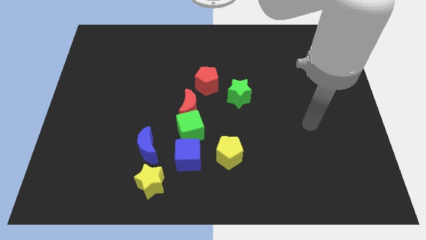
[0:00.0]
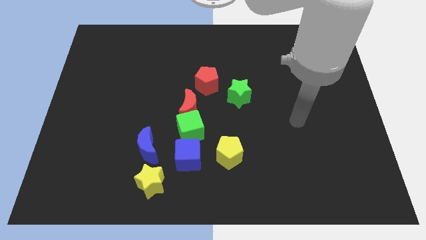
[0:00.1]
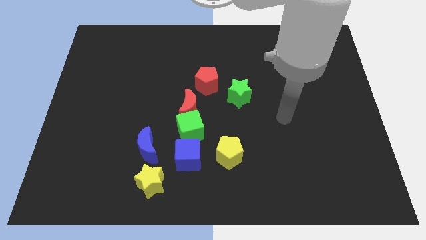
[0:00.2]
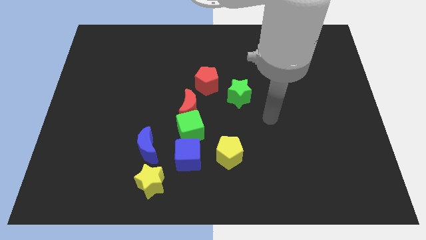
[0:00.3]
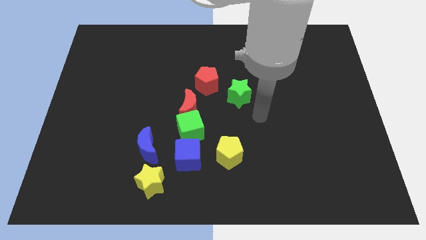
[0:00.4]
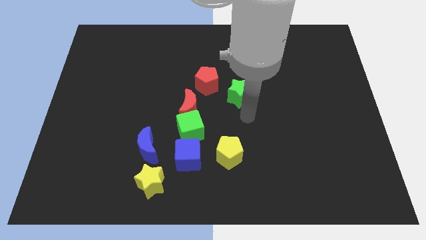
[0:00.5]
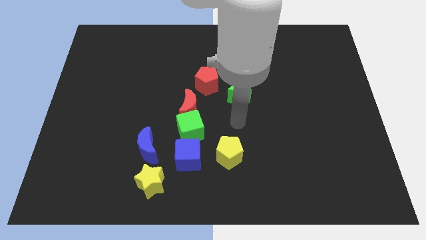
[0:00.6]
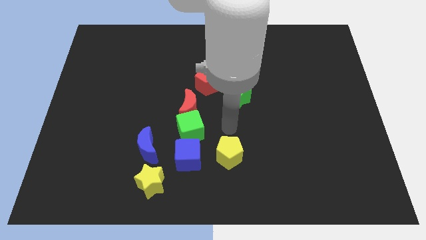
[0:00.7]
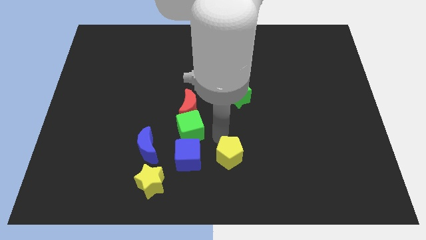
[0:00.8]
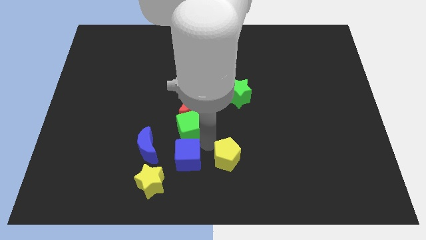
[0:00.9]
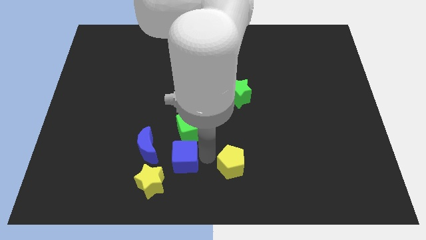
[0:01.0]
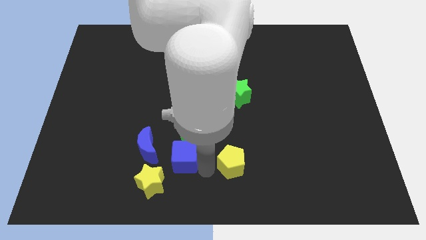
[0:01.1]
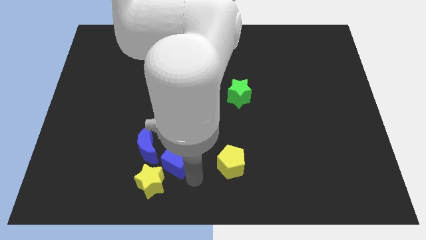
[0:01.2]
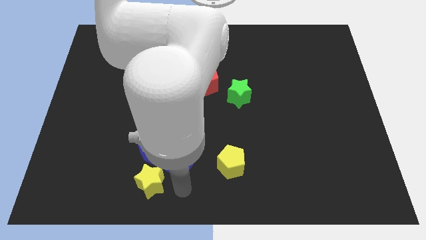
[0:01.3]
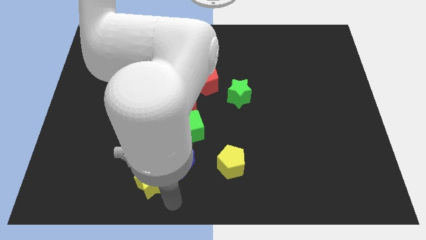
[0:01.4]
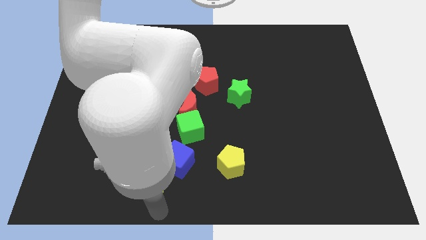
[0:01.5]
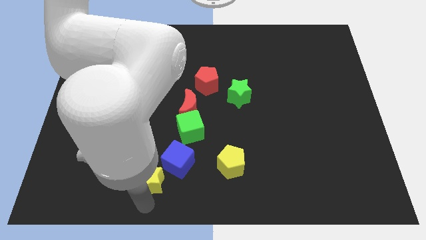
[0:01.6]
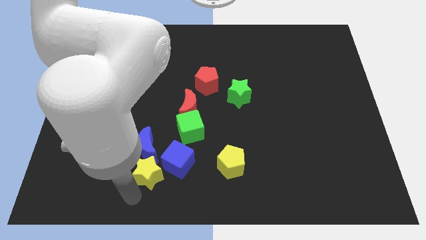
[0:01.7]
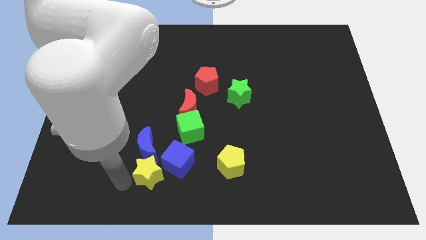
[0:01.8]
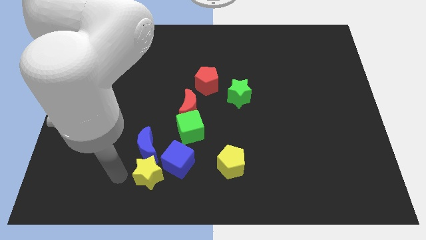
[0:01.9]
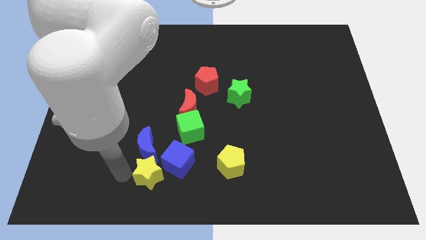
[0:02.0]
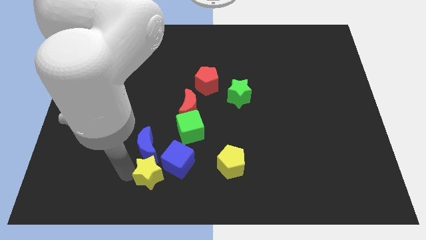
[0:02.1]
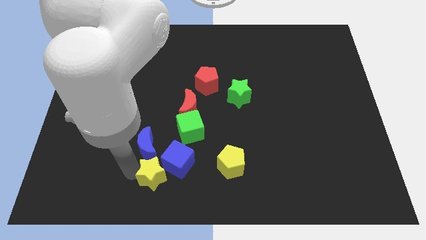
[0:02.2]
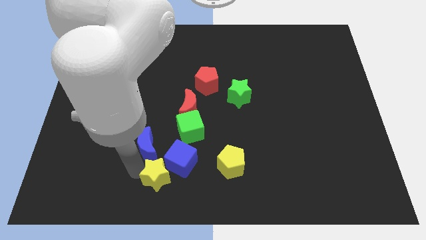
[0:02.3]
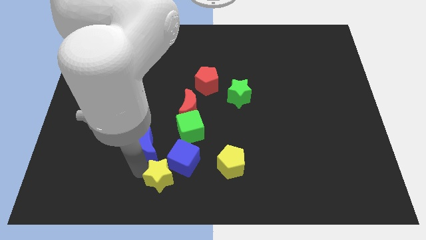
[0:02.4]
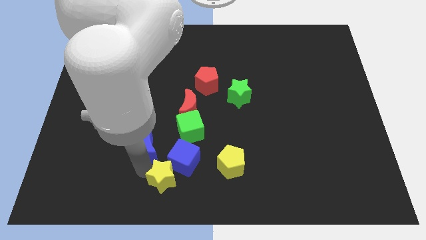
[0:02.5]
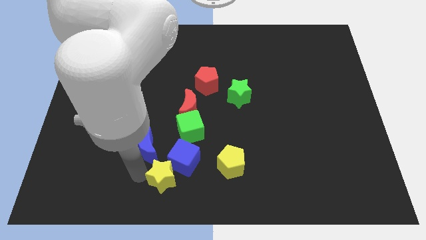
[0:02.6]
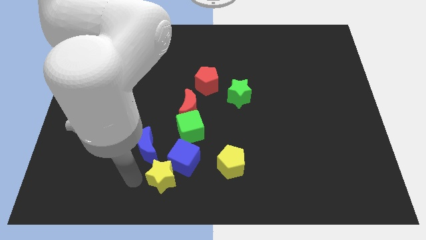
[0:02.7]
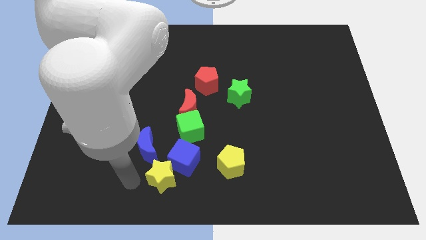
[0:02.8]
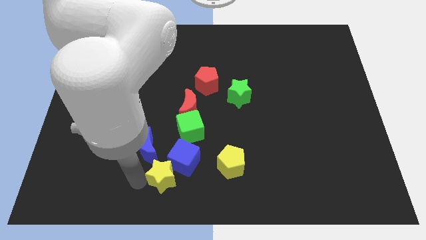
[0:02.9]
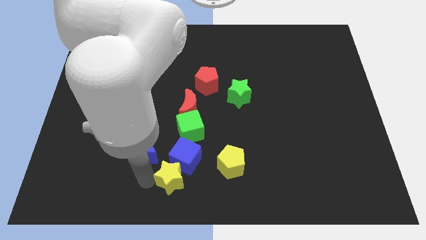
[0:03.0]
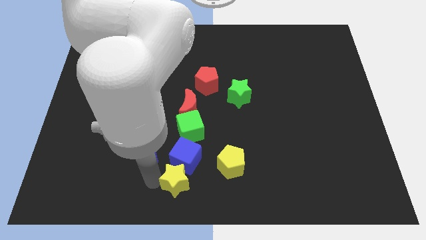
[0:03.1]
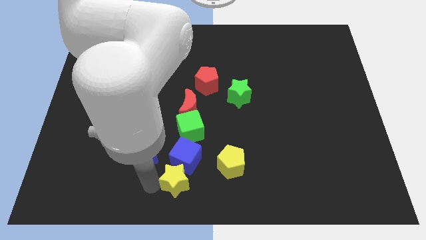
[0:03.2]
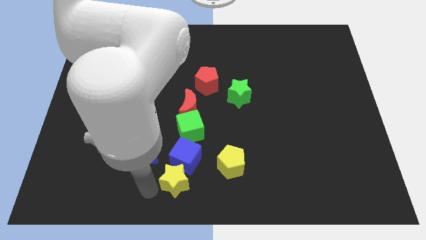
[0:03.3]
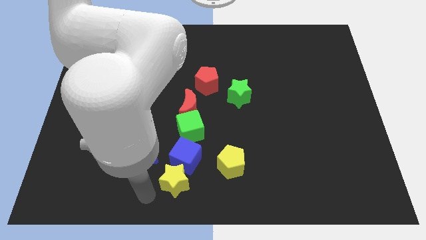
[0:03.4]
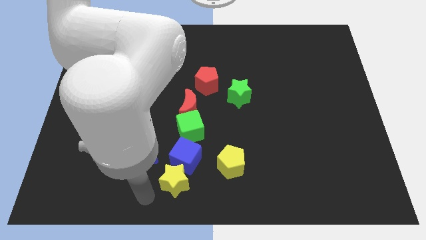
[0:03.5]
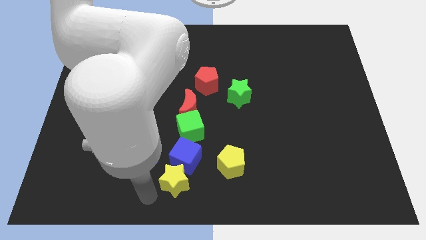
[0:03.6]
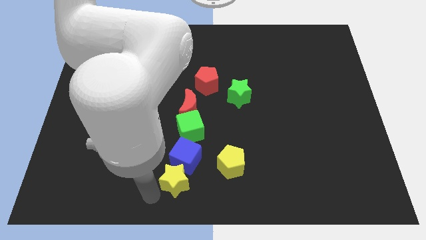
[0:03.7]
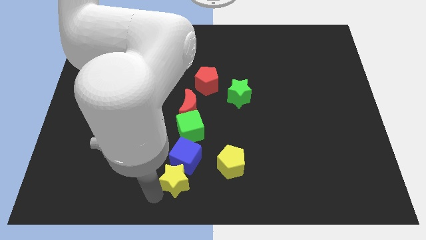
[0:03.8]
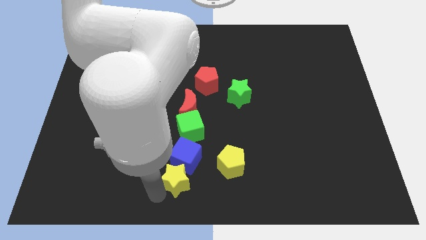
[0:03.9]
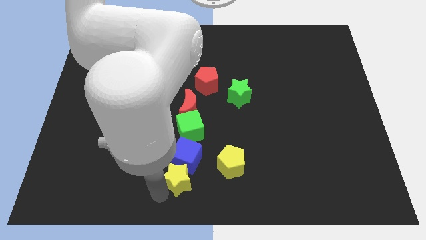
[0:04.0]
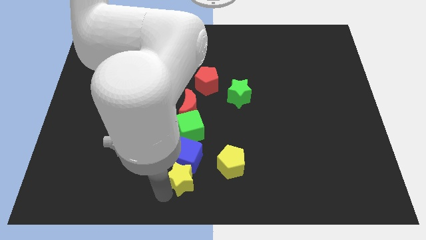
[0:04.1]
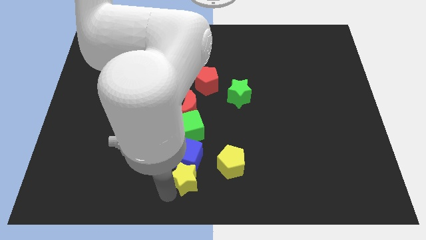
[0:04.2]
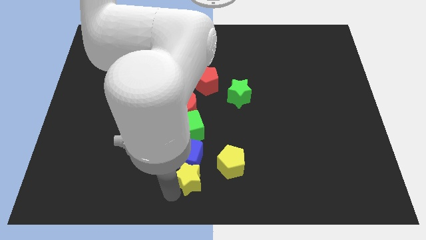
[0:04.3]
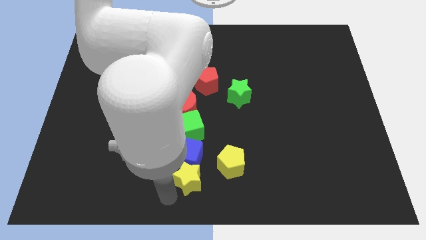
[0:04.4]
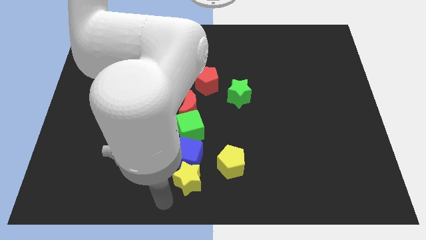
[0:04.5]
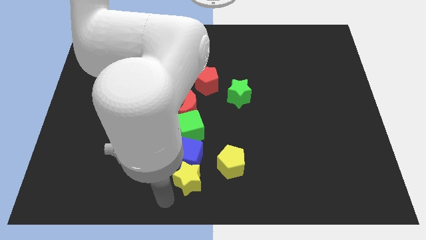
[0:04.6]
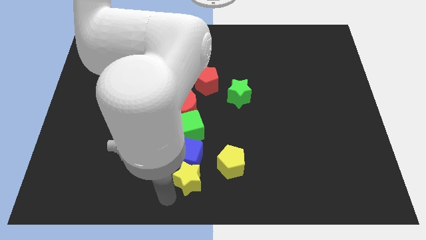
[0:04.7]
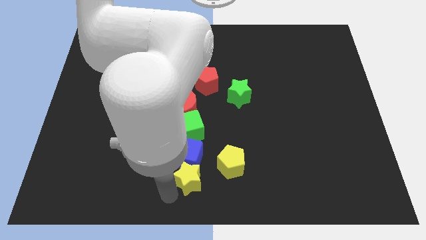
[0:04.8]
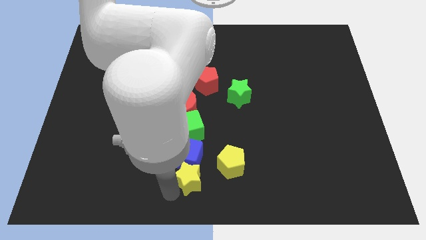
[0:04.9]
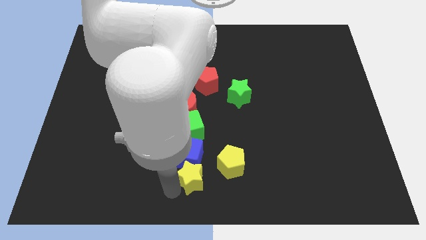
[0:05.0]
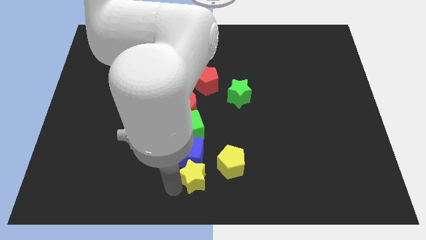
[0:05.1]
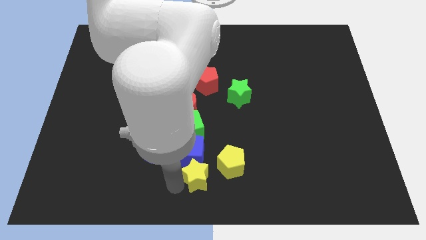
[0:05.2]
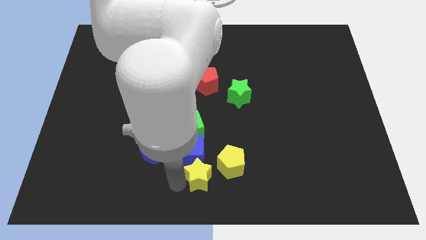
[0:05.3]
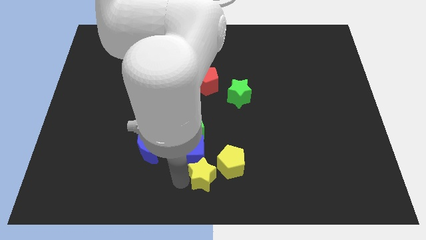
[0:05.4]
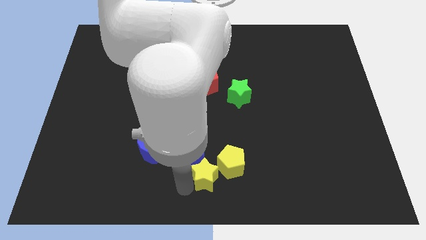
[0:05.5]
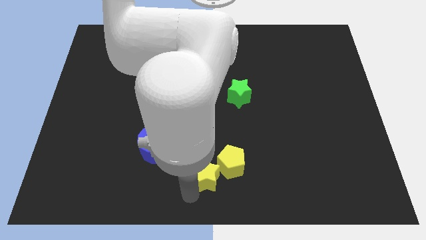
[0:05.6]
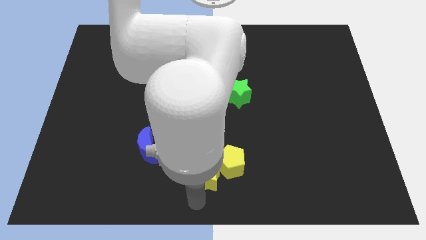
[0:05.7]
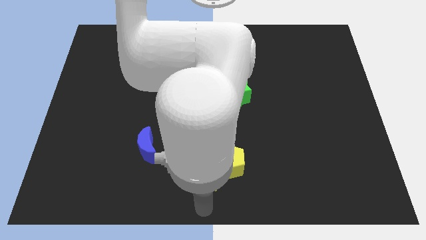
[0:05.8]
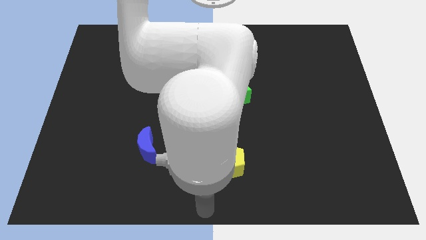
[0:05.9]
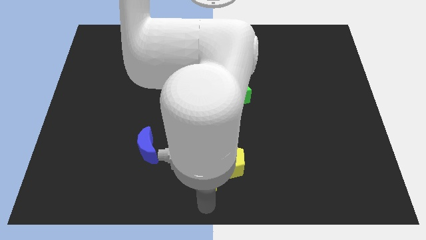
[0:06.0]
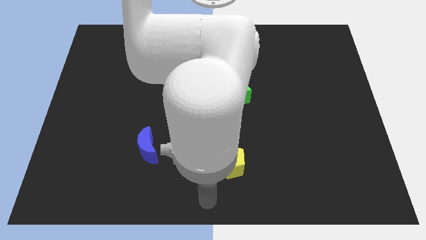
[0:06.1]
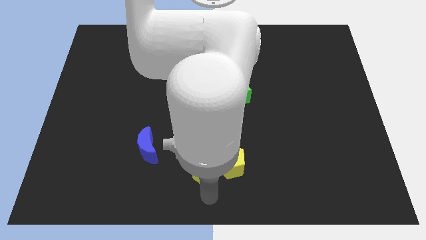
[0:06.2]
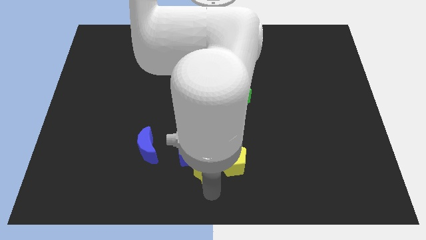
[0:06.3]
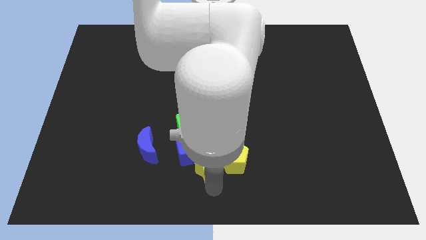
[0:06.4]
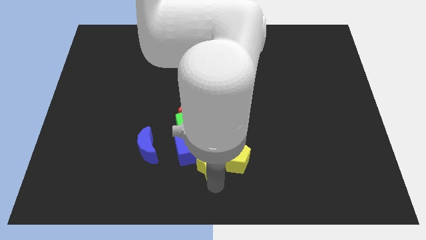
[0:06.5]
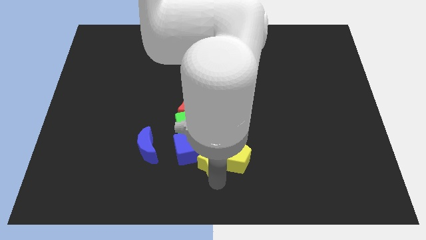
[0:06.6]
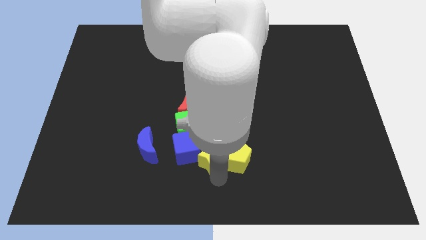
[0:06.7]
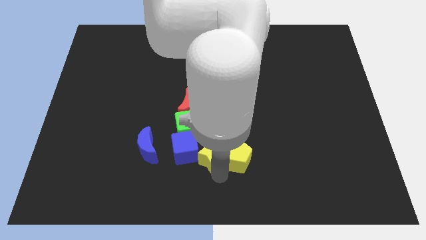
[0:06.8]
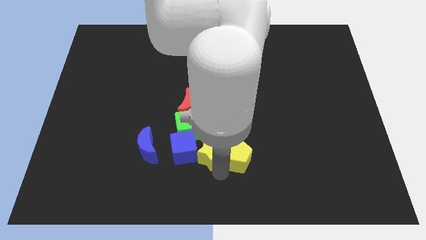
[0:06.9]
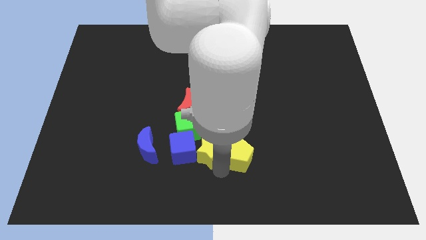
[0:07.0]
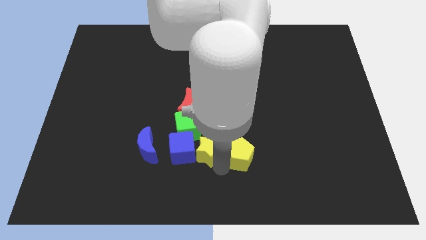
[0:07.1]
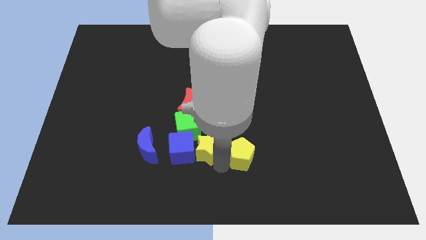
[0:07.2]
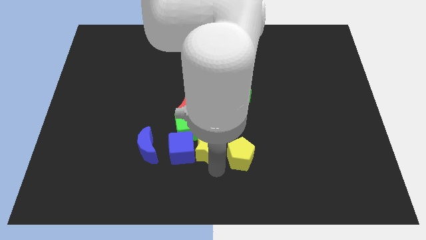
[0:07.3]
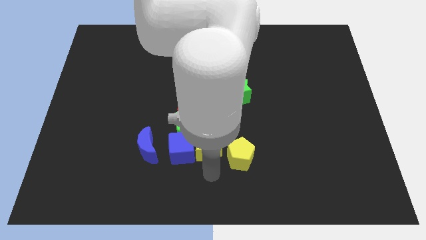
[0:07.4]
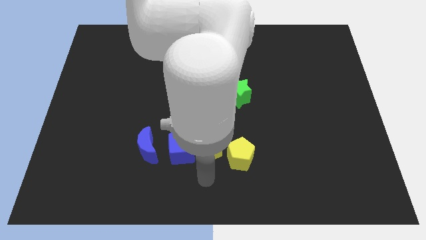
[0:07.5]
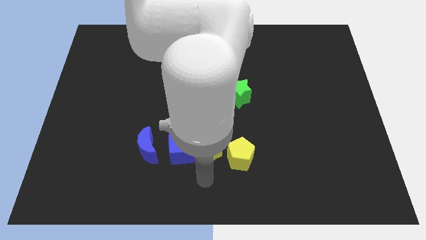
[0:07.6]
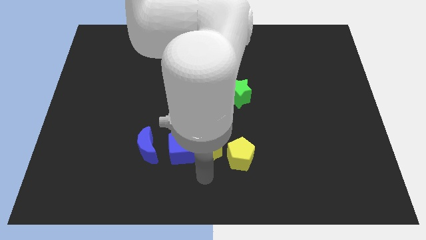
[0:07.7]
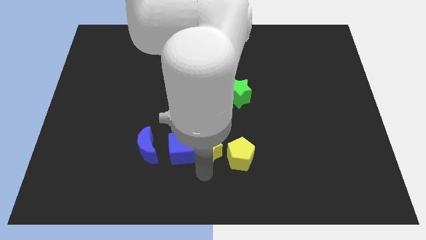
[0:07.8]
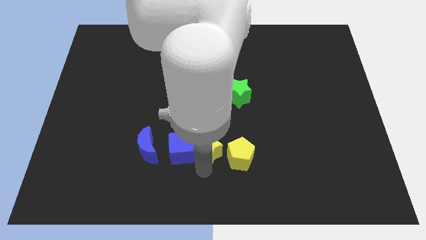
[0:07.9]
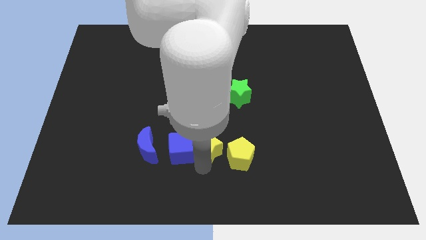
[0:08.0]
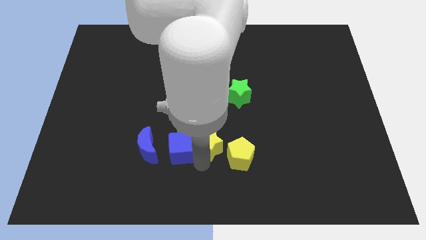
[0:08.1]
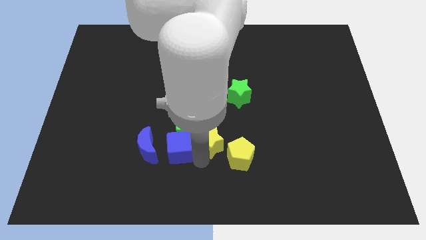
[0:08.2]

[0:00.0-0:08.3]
put the yellow star to the center of the board
